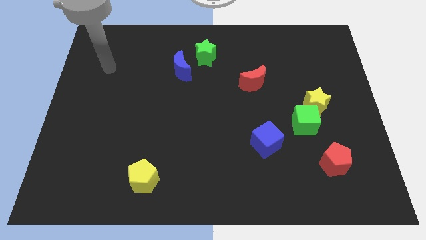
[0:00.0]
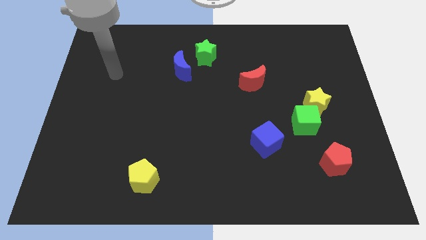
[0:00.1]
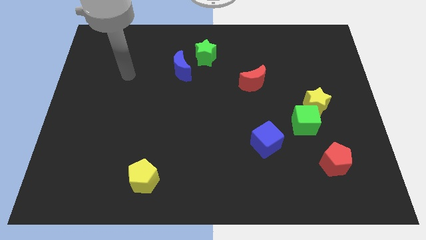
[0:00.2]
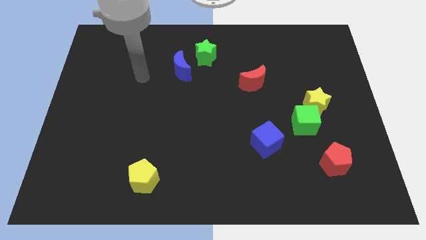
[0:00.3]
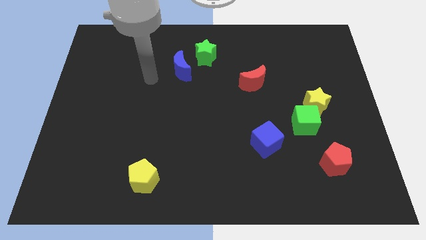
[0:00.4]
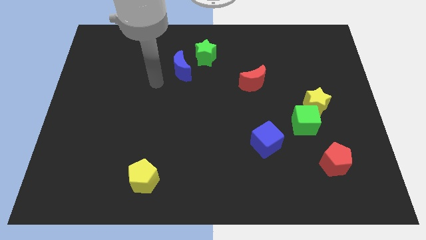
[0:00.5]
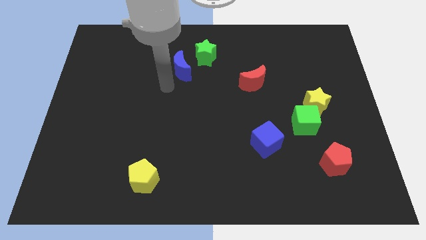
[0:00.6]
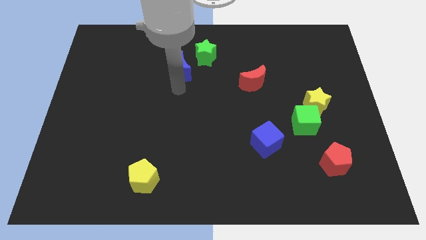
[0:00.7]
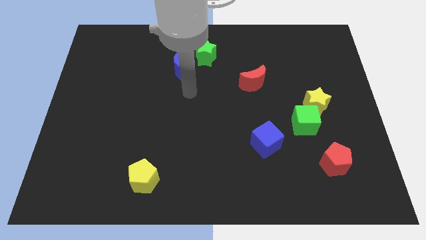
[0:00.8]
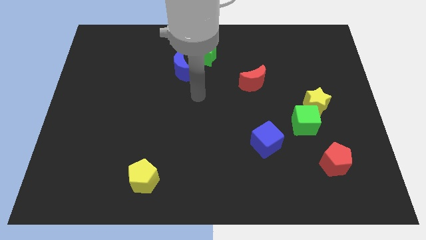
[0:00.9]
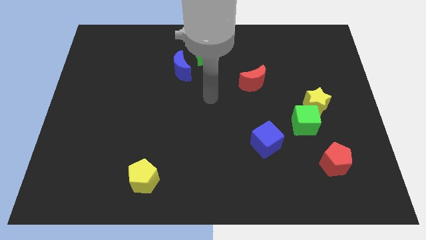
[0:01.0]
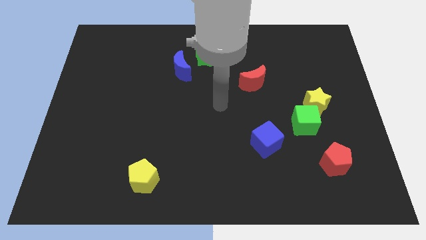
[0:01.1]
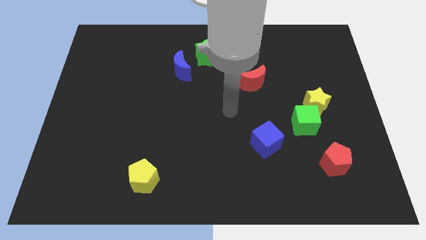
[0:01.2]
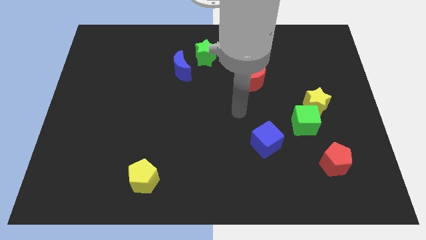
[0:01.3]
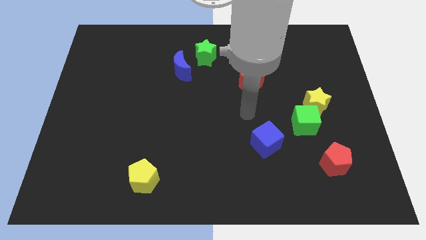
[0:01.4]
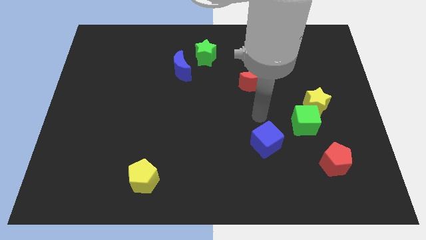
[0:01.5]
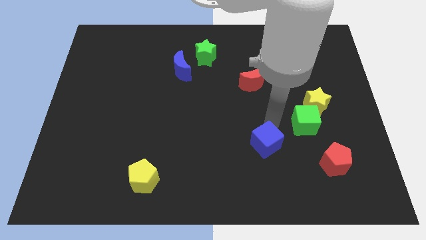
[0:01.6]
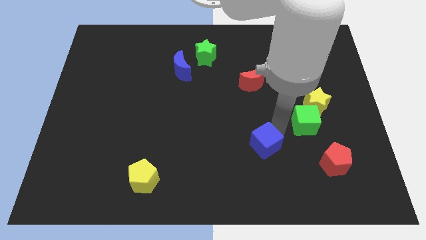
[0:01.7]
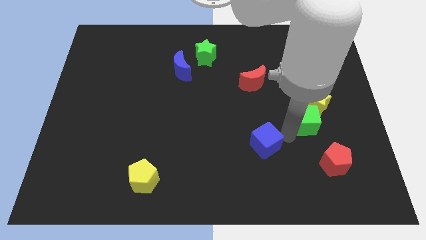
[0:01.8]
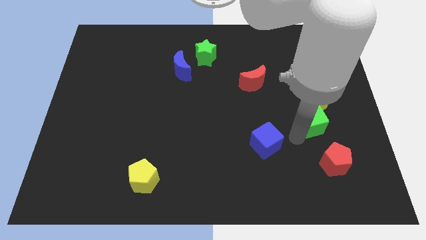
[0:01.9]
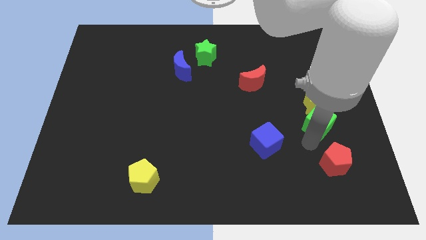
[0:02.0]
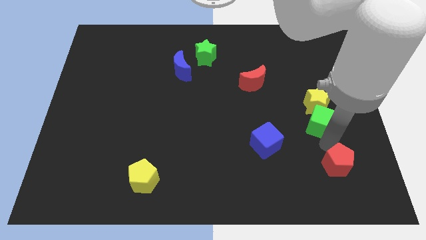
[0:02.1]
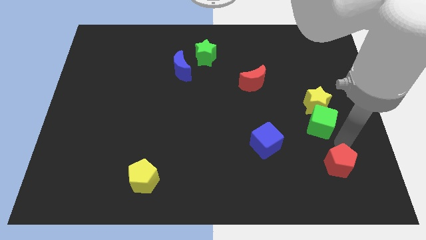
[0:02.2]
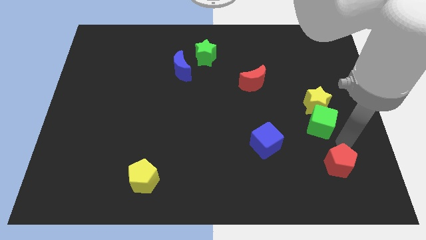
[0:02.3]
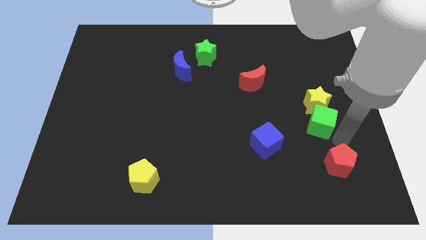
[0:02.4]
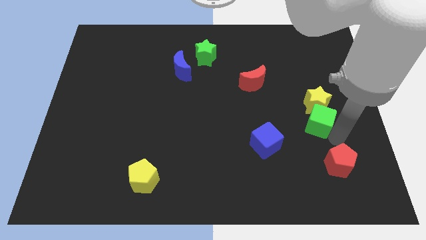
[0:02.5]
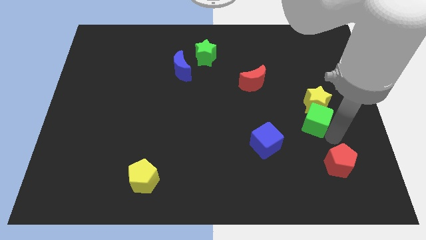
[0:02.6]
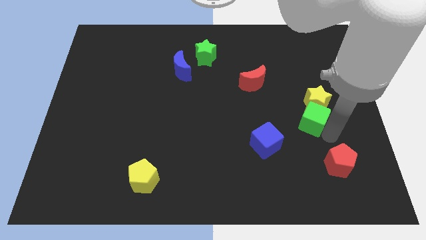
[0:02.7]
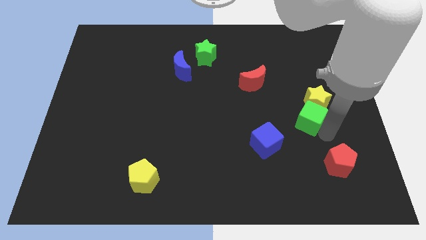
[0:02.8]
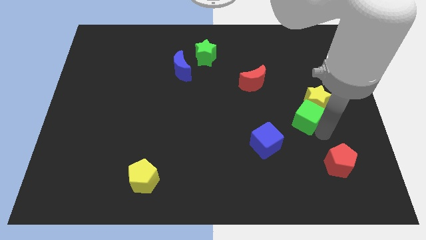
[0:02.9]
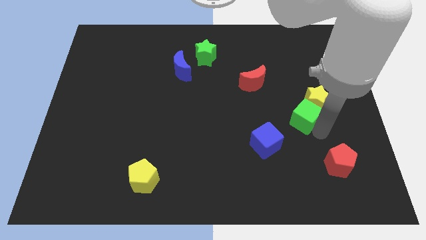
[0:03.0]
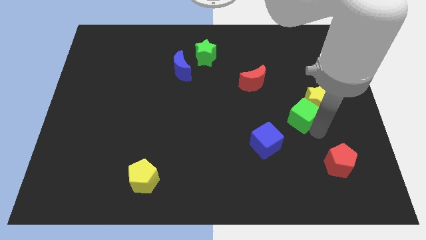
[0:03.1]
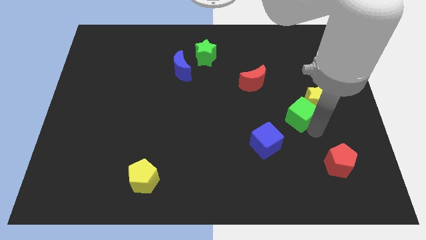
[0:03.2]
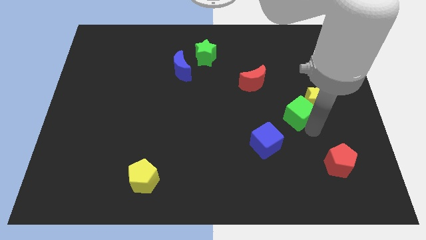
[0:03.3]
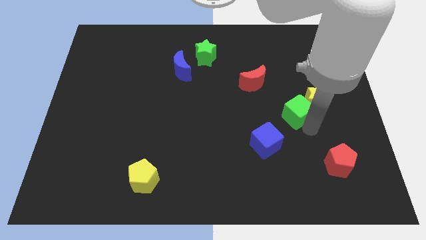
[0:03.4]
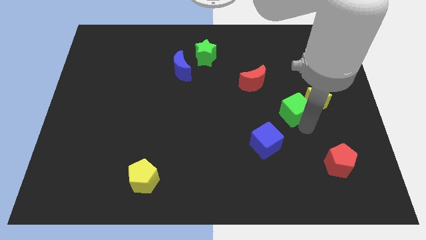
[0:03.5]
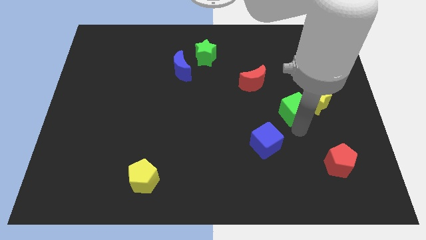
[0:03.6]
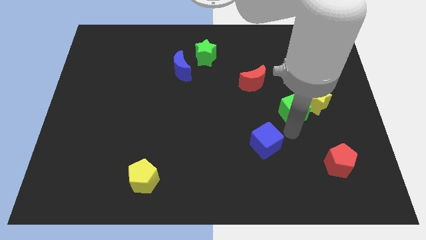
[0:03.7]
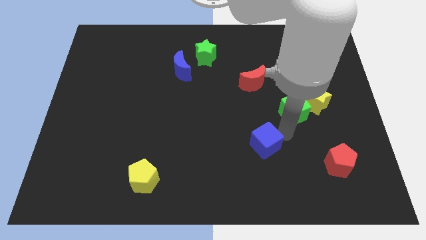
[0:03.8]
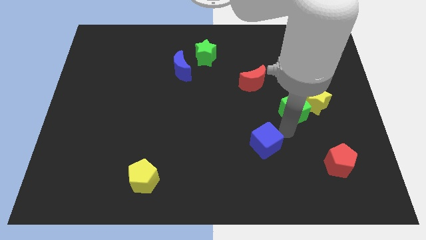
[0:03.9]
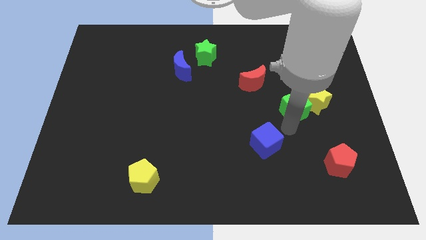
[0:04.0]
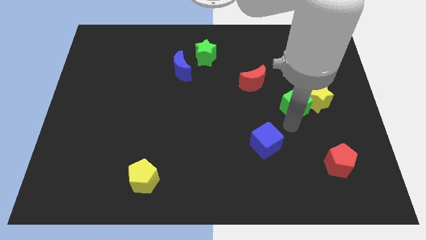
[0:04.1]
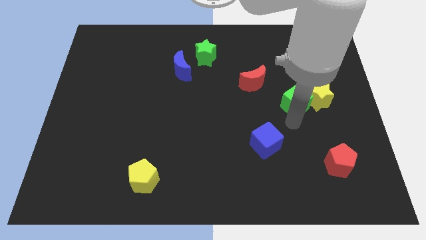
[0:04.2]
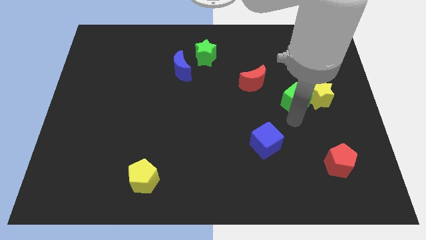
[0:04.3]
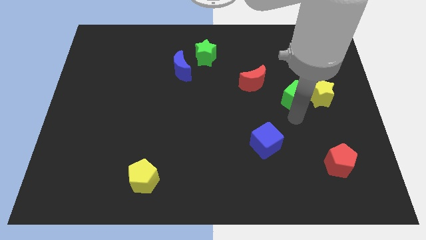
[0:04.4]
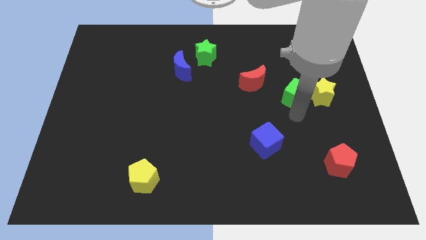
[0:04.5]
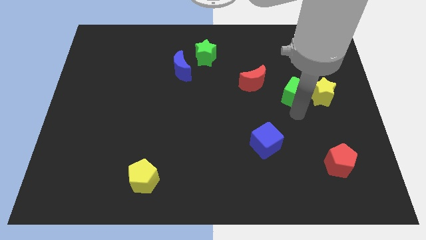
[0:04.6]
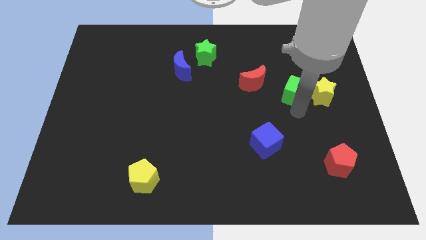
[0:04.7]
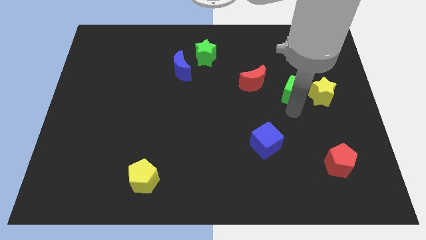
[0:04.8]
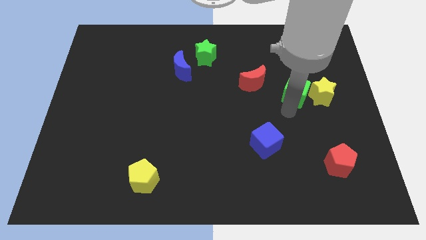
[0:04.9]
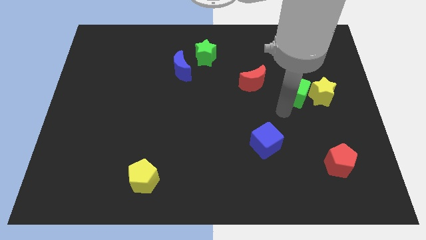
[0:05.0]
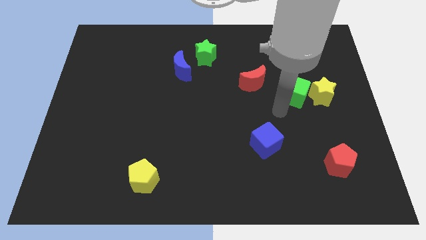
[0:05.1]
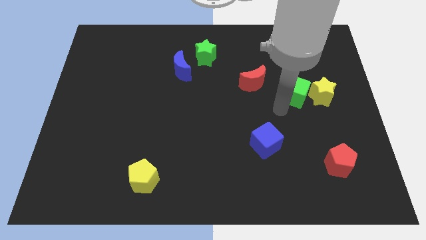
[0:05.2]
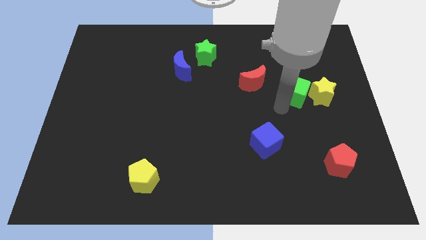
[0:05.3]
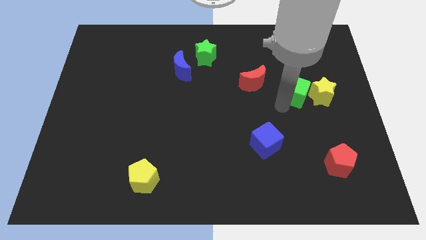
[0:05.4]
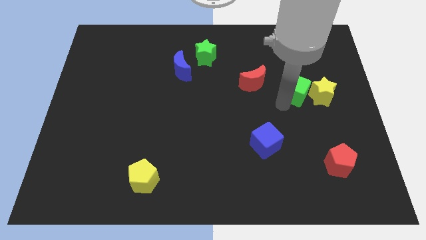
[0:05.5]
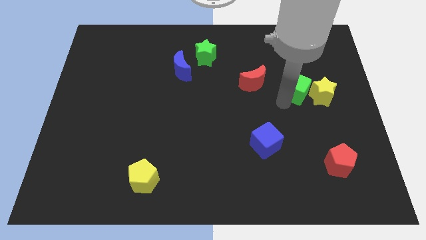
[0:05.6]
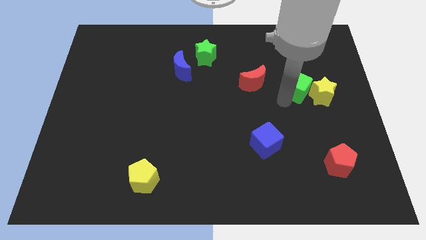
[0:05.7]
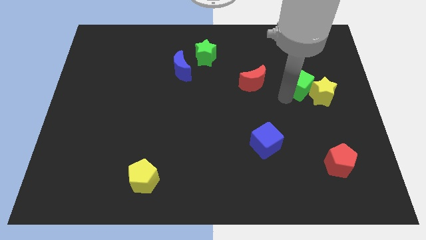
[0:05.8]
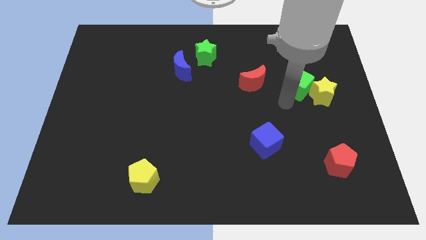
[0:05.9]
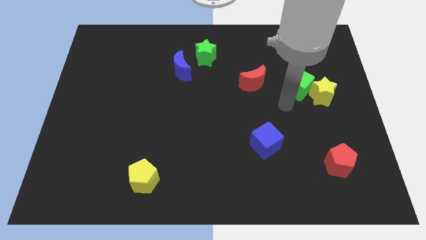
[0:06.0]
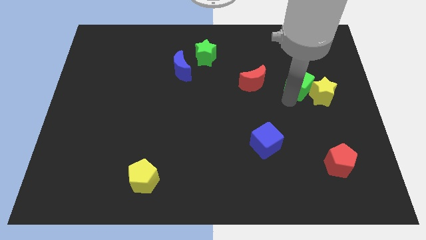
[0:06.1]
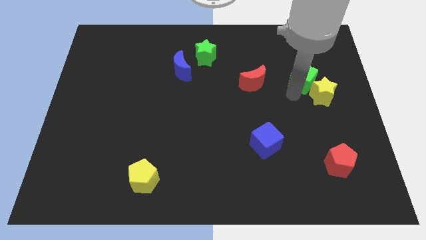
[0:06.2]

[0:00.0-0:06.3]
slide the green cube to the top of the yellow star

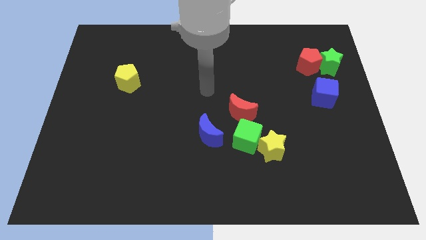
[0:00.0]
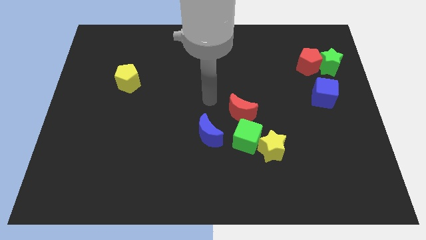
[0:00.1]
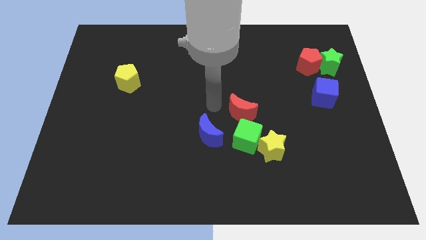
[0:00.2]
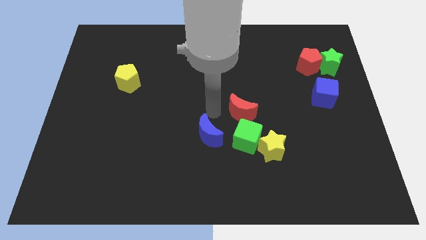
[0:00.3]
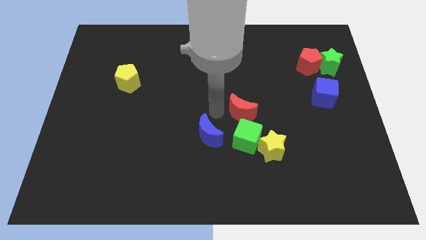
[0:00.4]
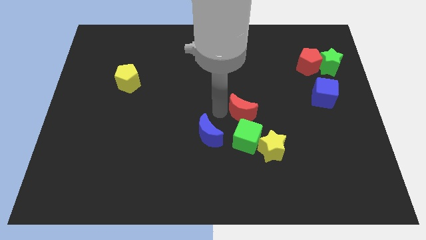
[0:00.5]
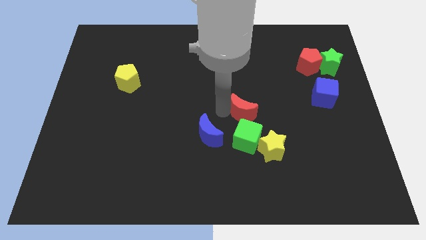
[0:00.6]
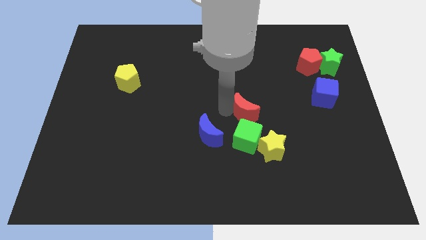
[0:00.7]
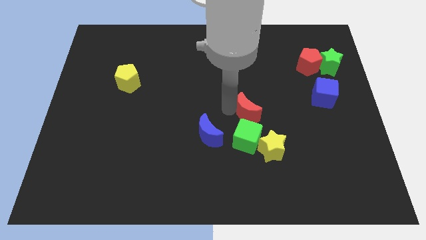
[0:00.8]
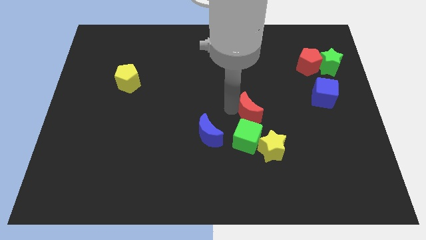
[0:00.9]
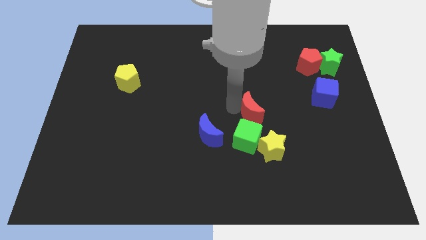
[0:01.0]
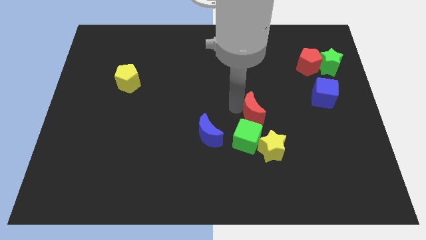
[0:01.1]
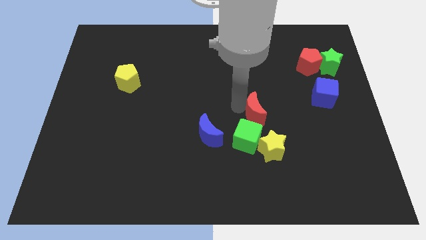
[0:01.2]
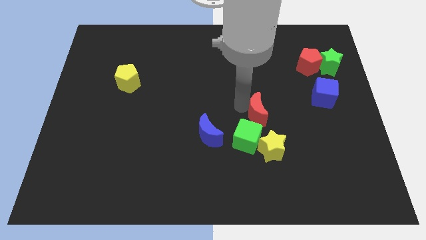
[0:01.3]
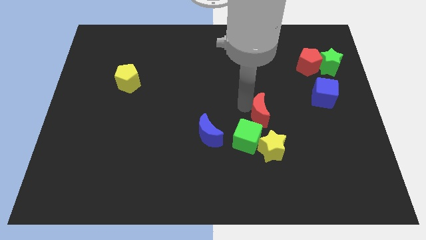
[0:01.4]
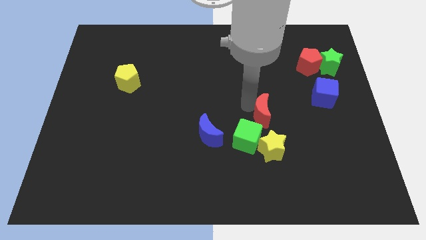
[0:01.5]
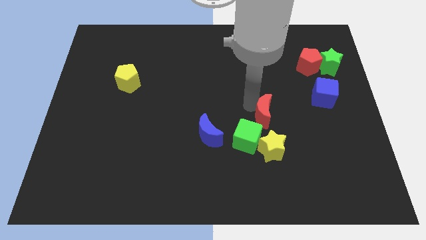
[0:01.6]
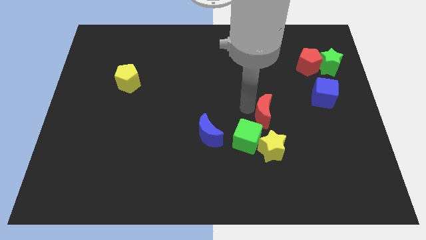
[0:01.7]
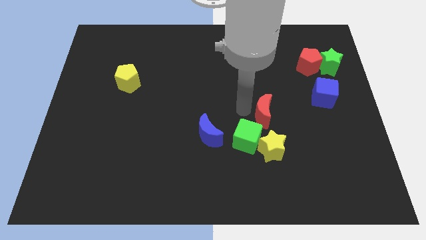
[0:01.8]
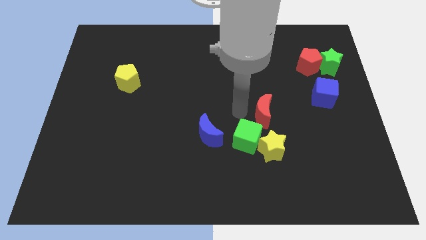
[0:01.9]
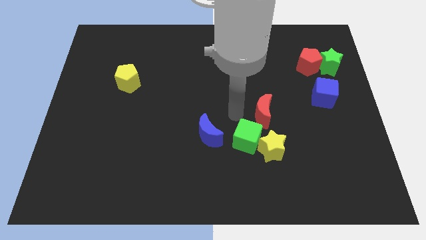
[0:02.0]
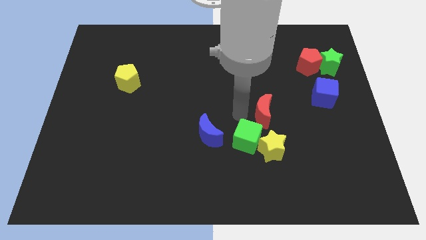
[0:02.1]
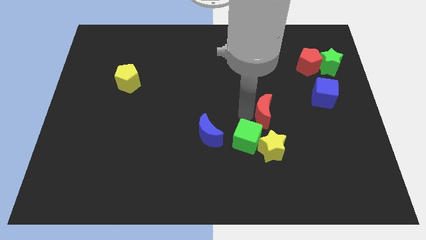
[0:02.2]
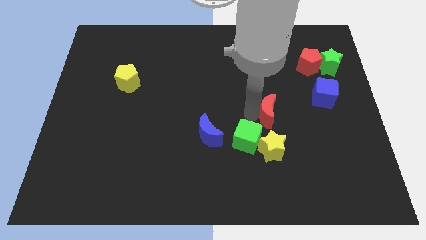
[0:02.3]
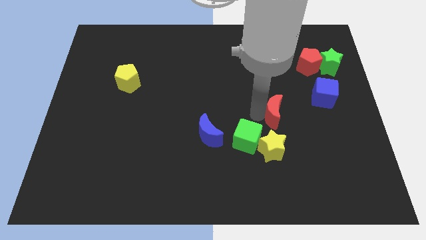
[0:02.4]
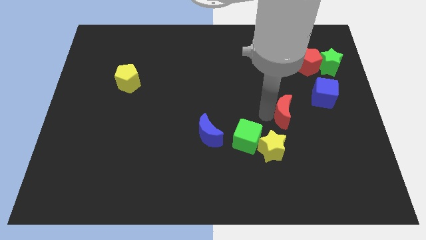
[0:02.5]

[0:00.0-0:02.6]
slide the red moon to the bottom left of the blue cube
